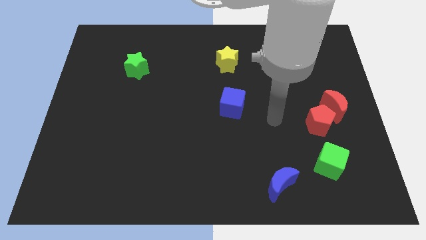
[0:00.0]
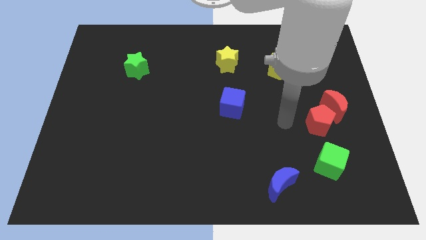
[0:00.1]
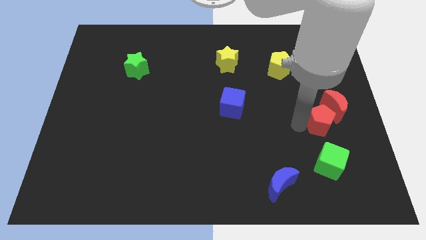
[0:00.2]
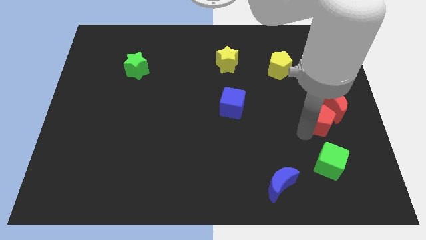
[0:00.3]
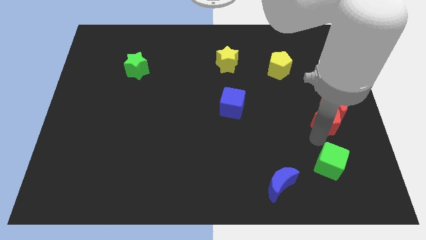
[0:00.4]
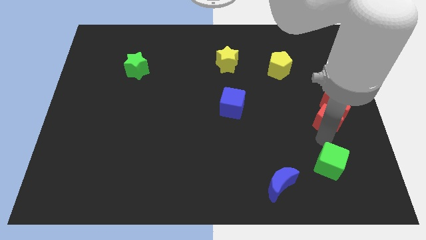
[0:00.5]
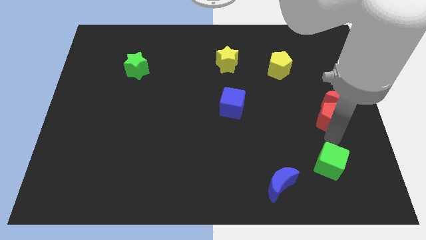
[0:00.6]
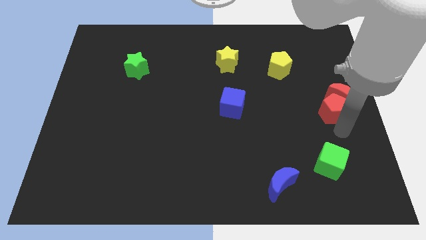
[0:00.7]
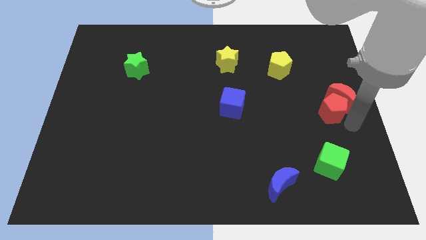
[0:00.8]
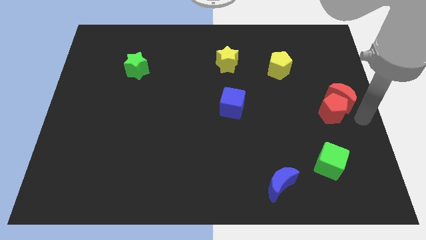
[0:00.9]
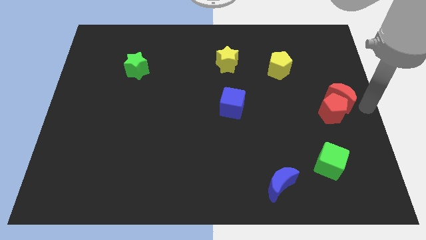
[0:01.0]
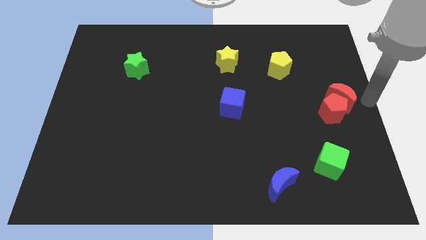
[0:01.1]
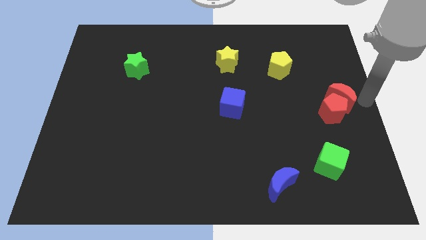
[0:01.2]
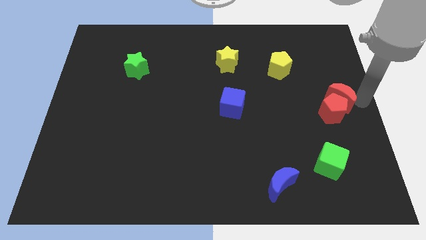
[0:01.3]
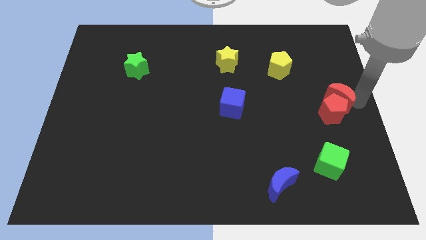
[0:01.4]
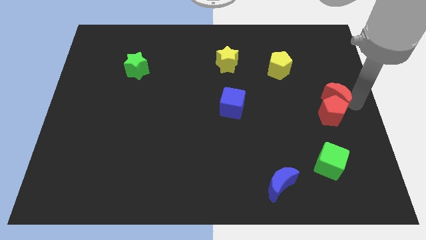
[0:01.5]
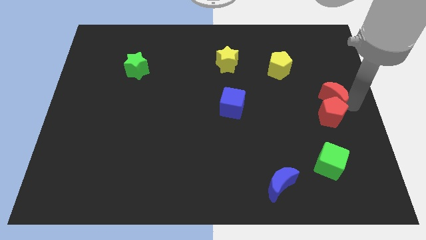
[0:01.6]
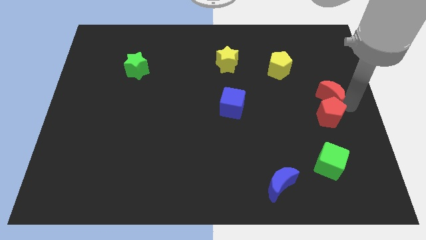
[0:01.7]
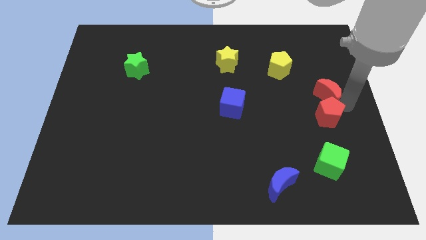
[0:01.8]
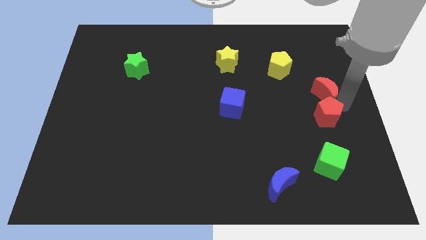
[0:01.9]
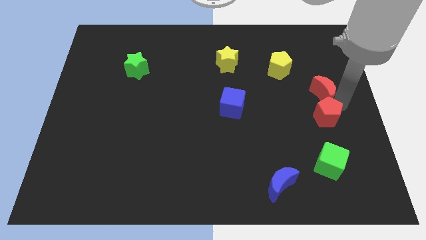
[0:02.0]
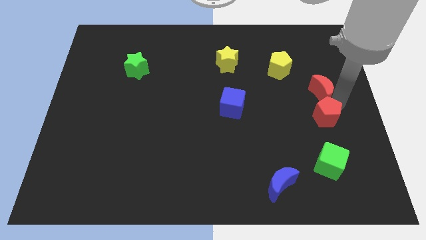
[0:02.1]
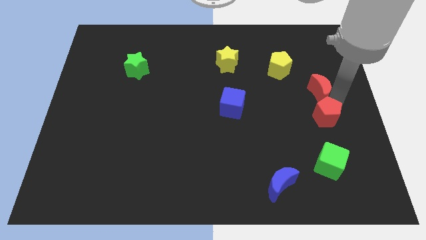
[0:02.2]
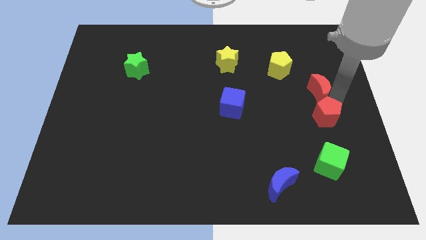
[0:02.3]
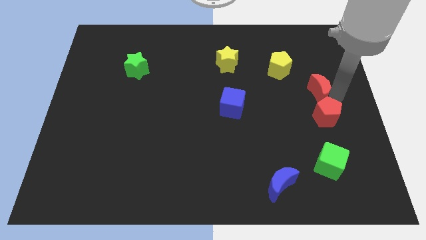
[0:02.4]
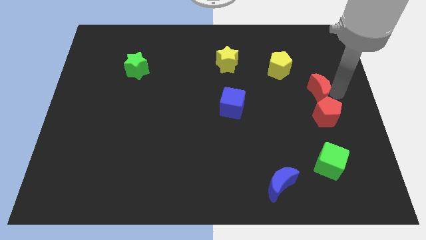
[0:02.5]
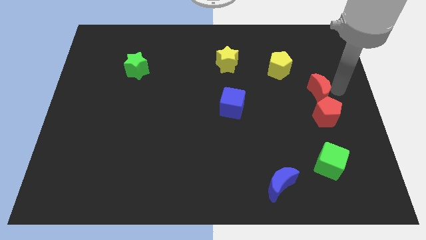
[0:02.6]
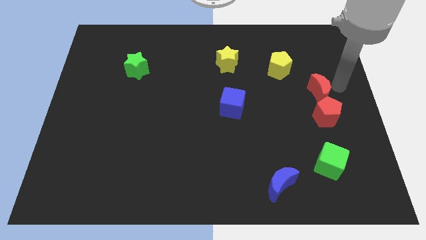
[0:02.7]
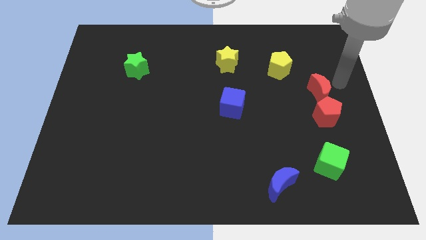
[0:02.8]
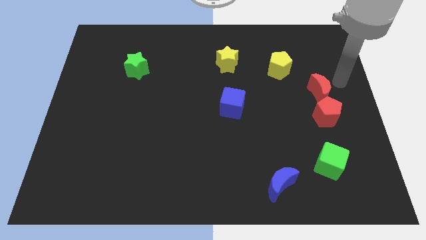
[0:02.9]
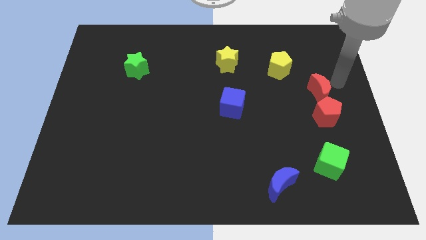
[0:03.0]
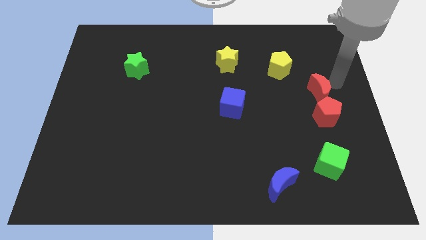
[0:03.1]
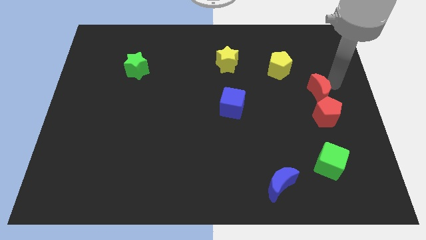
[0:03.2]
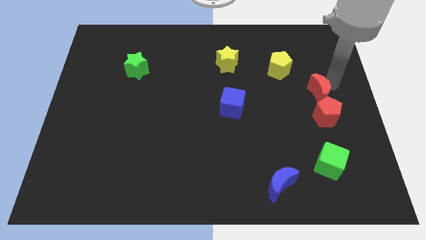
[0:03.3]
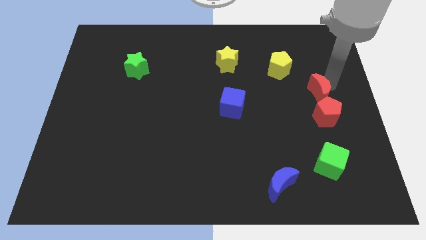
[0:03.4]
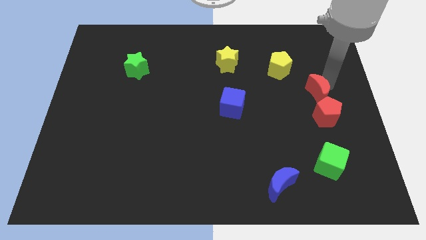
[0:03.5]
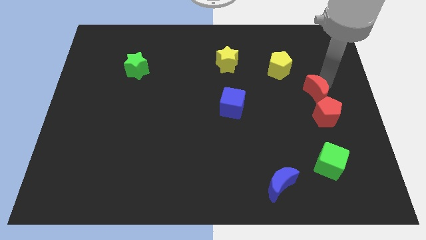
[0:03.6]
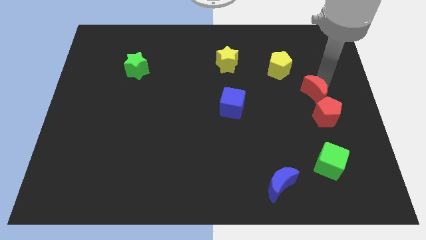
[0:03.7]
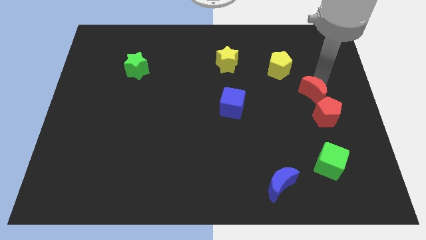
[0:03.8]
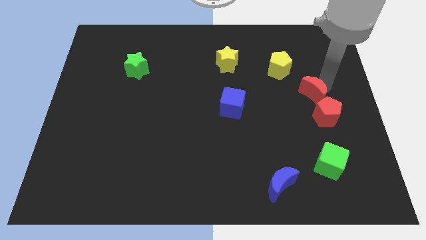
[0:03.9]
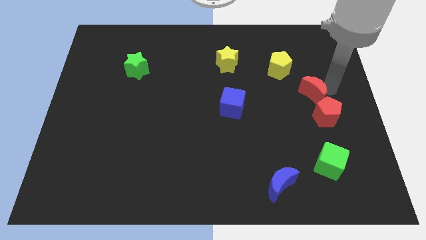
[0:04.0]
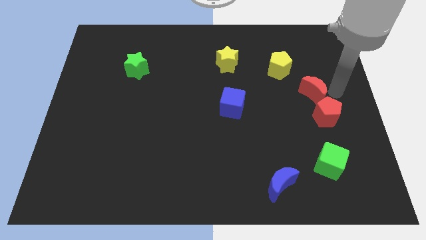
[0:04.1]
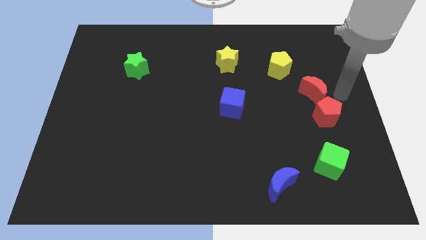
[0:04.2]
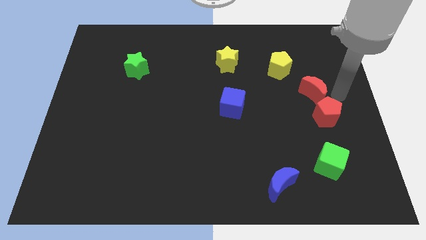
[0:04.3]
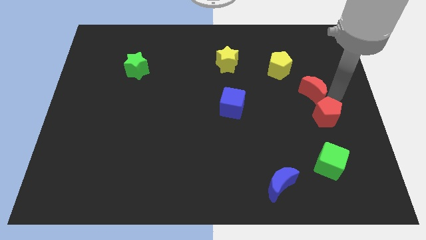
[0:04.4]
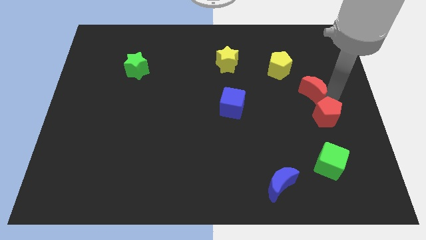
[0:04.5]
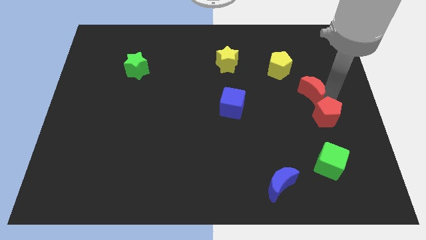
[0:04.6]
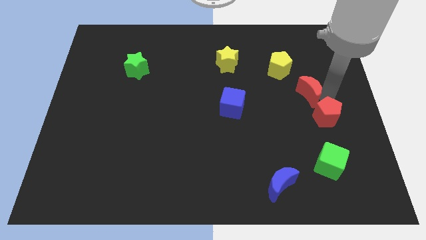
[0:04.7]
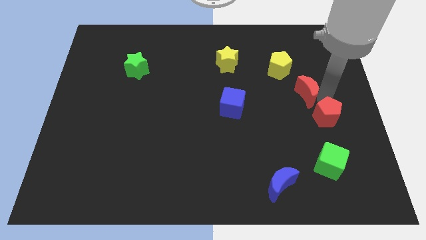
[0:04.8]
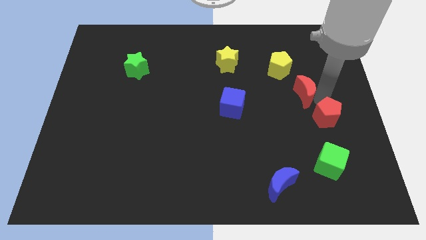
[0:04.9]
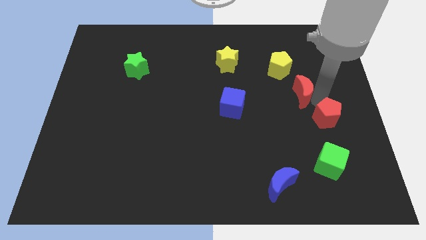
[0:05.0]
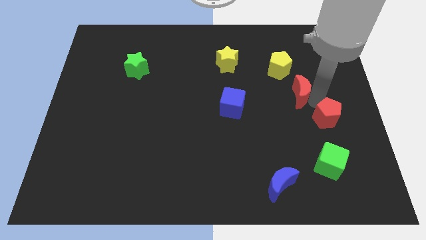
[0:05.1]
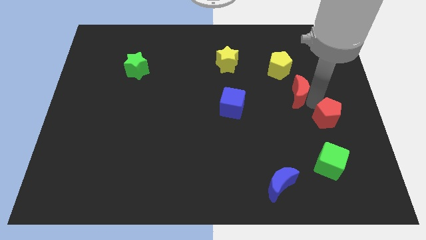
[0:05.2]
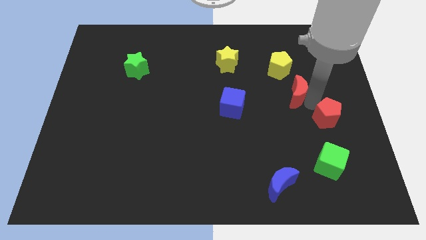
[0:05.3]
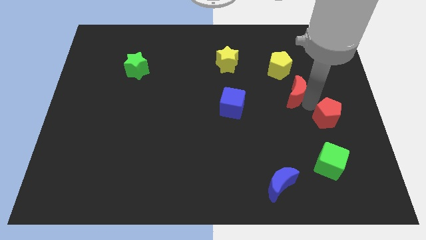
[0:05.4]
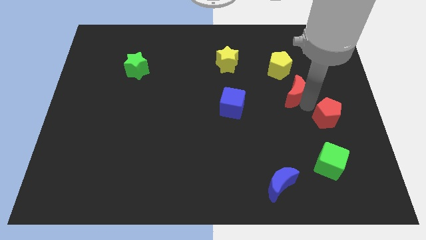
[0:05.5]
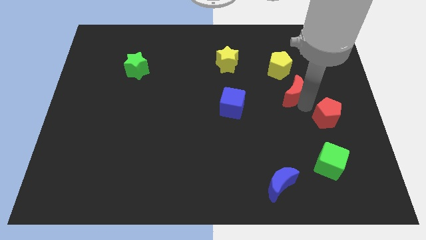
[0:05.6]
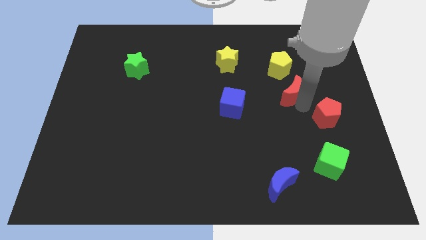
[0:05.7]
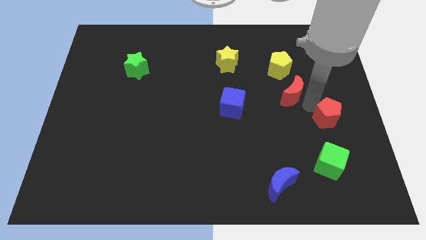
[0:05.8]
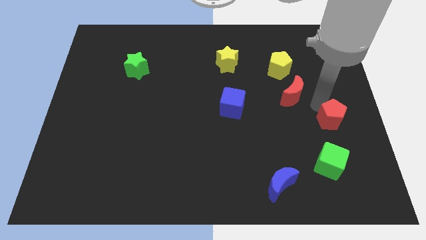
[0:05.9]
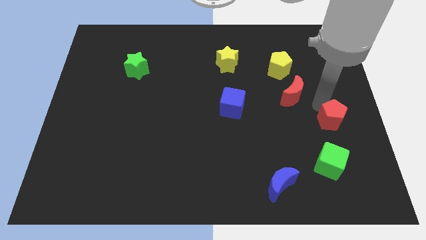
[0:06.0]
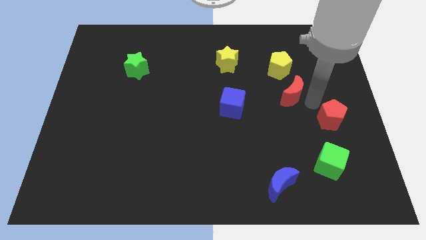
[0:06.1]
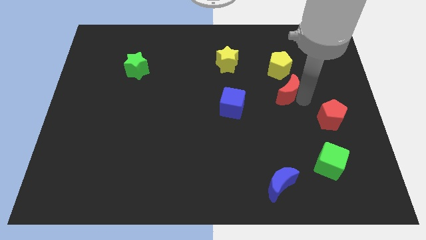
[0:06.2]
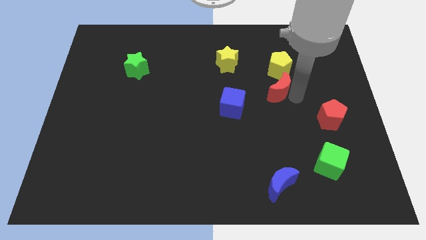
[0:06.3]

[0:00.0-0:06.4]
push the red moon to the bottom left side of the yellow pentagon

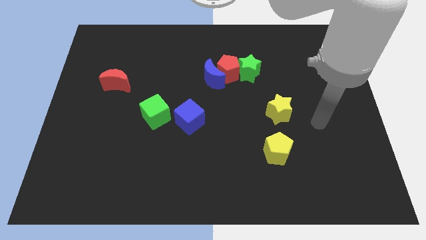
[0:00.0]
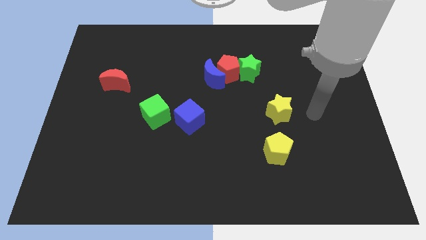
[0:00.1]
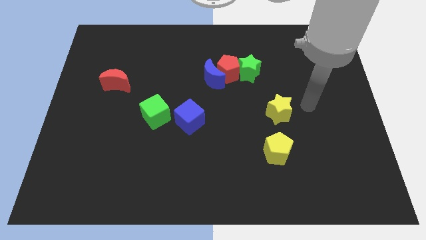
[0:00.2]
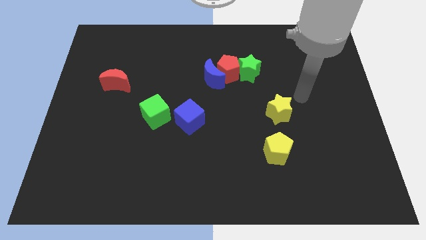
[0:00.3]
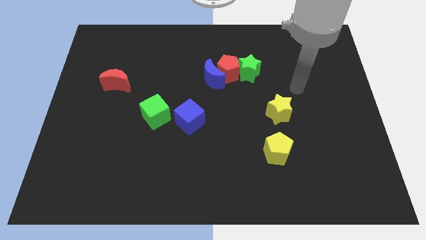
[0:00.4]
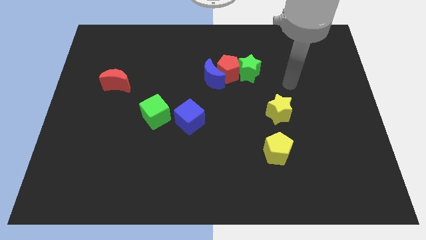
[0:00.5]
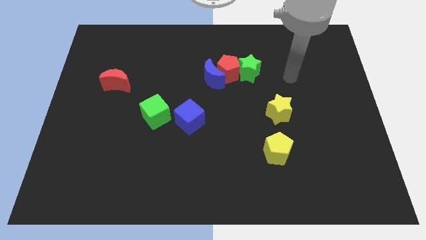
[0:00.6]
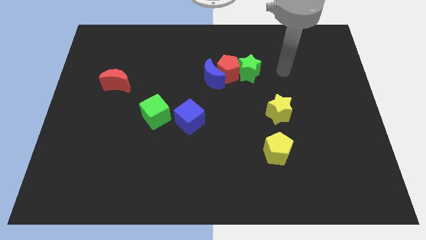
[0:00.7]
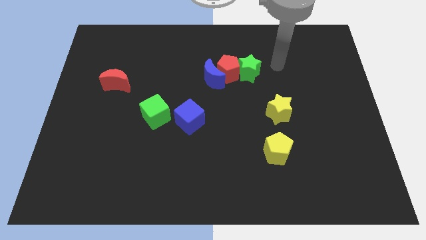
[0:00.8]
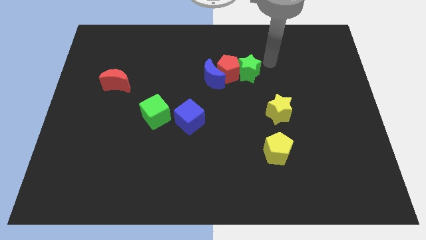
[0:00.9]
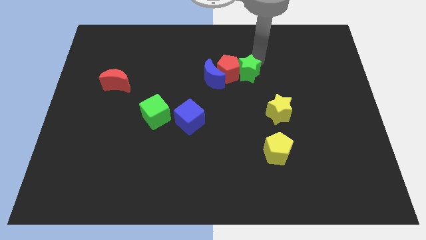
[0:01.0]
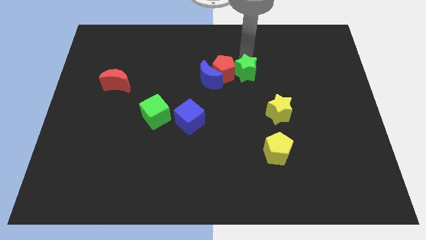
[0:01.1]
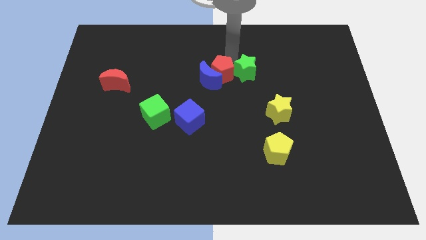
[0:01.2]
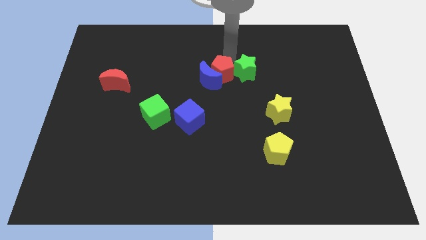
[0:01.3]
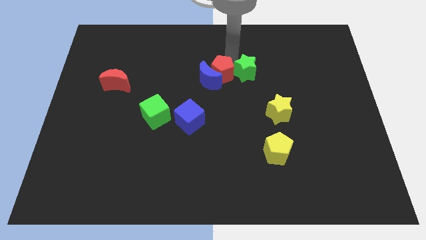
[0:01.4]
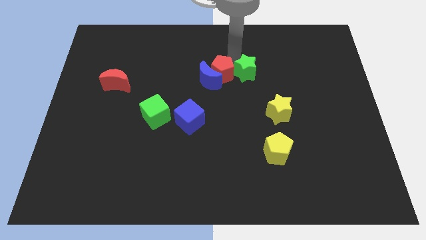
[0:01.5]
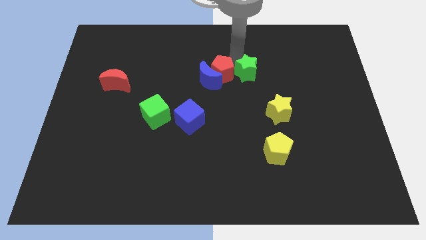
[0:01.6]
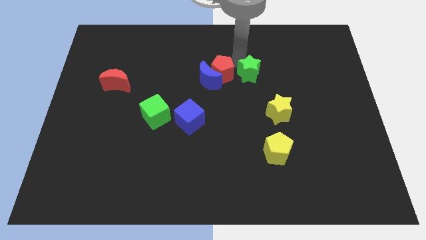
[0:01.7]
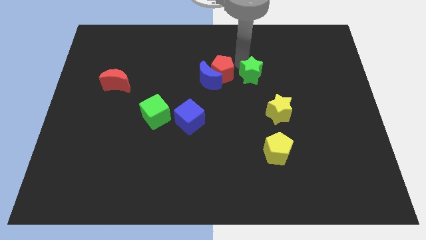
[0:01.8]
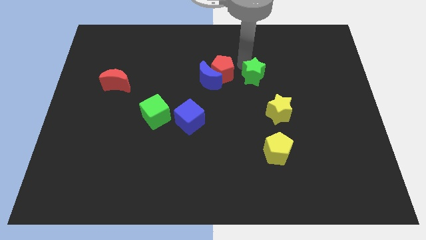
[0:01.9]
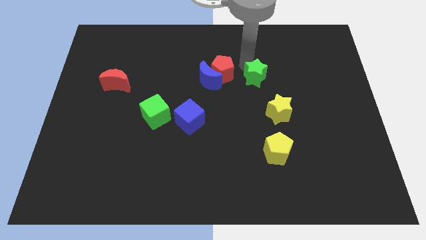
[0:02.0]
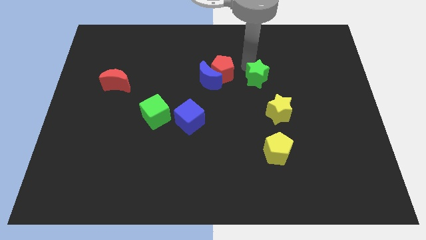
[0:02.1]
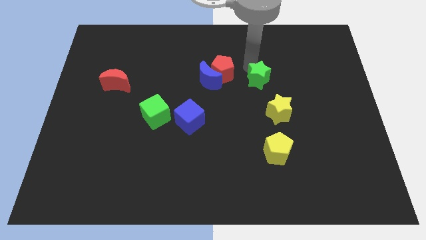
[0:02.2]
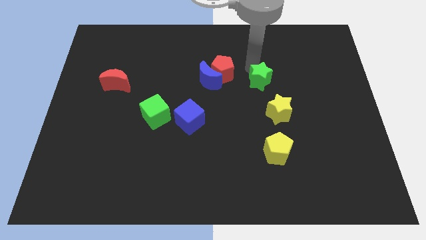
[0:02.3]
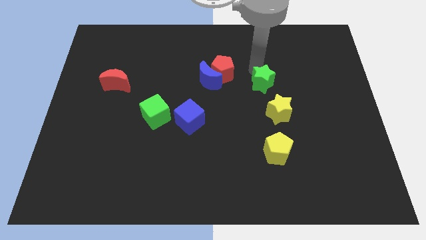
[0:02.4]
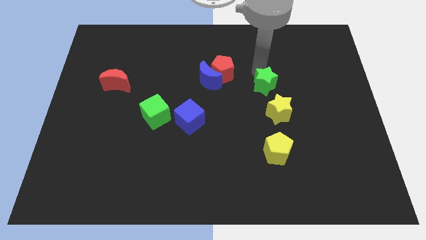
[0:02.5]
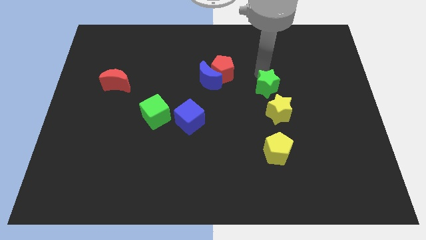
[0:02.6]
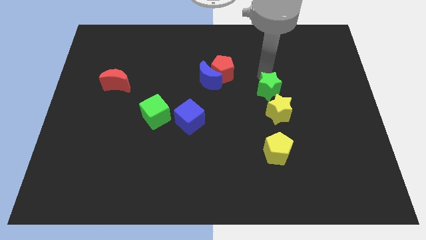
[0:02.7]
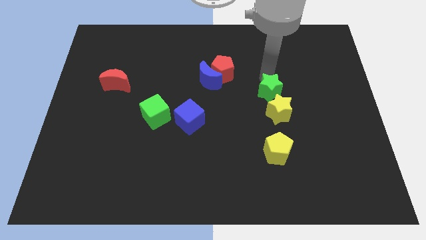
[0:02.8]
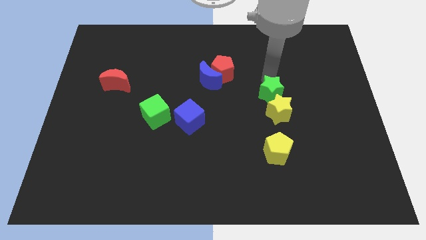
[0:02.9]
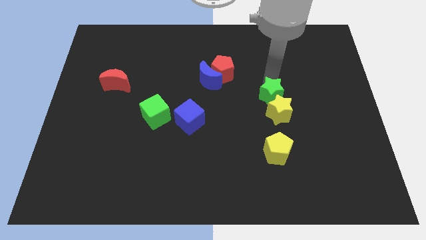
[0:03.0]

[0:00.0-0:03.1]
slide the green star to the top of the yellow pentagon
